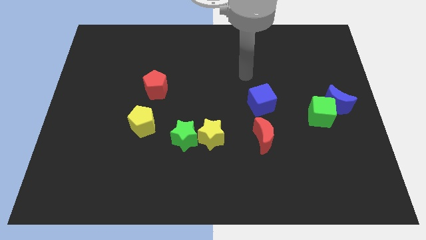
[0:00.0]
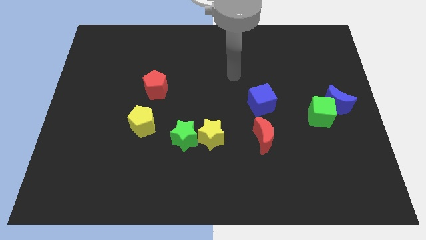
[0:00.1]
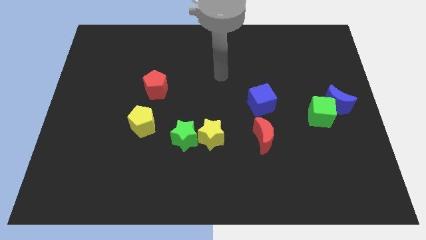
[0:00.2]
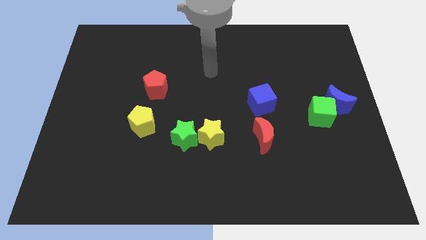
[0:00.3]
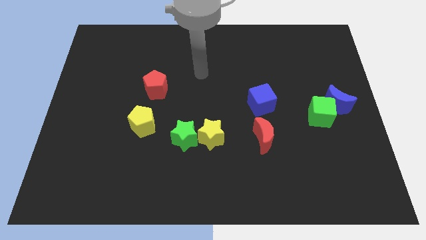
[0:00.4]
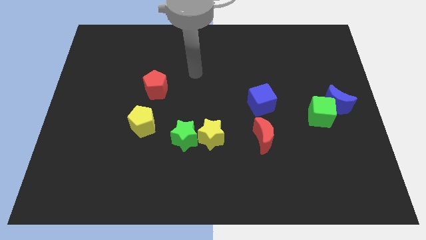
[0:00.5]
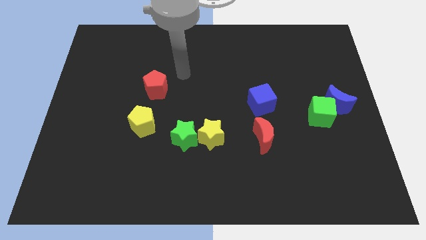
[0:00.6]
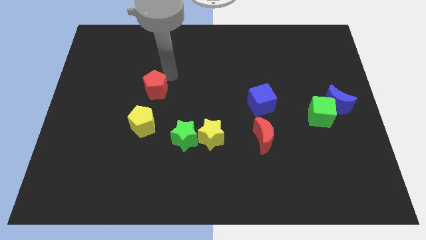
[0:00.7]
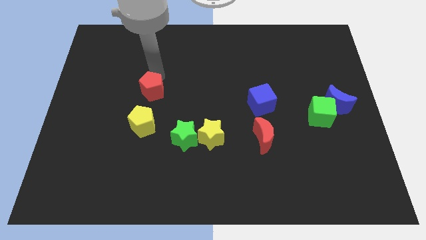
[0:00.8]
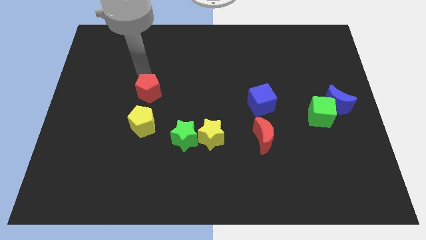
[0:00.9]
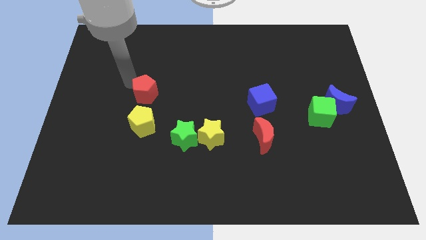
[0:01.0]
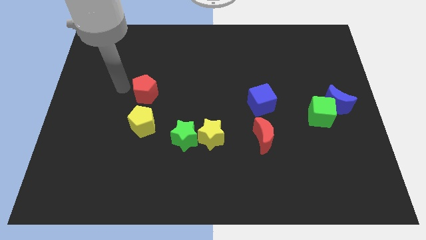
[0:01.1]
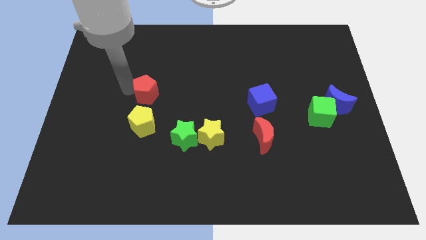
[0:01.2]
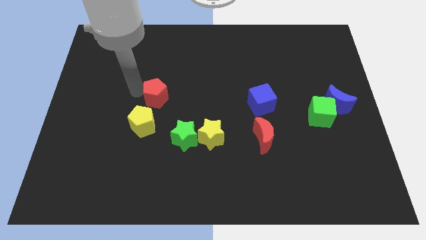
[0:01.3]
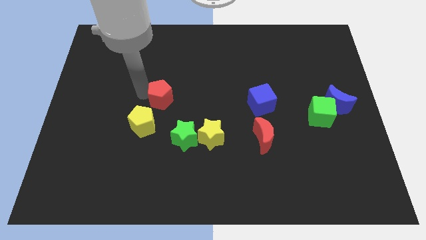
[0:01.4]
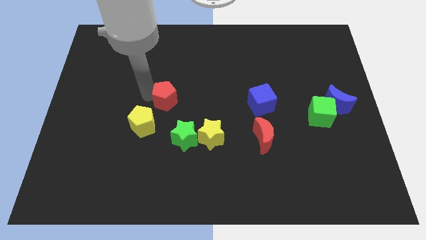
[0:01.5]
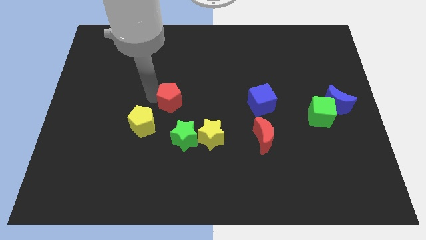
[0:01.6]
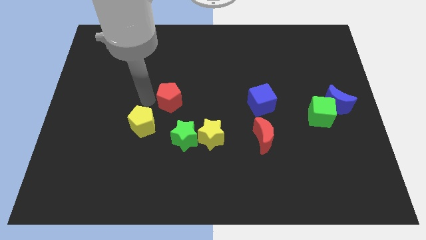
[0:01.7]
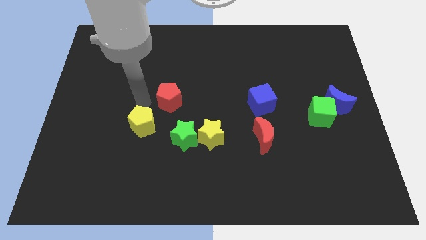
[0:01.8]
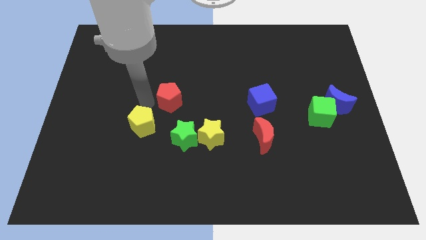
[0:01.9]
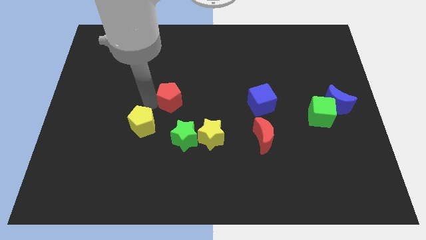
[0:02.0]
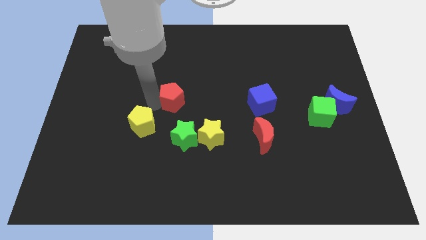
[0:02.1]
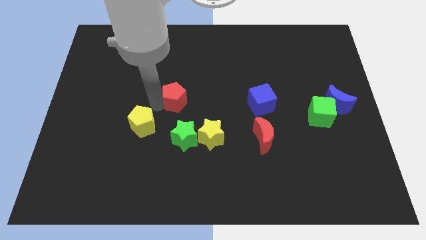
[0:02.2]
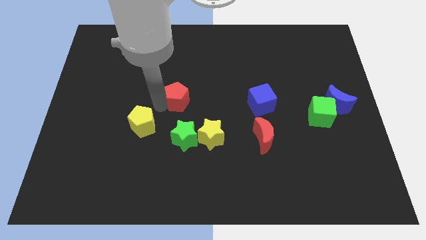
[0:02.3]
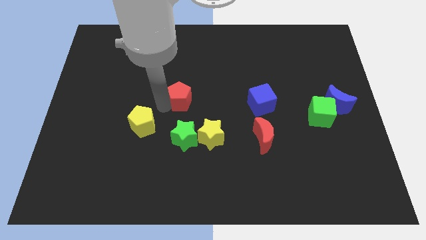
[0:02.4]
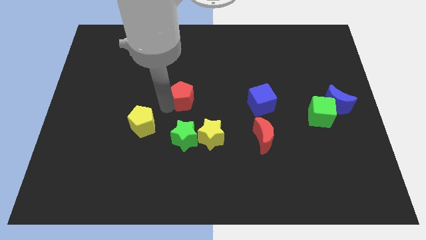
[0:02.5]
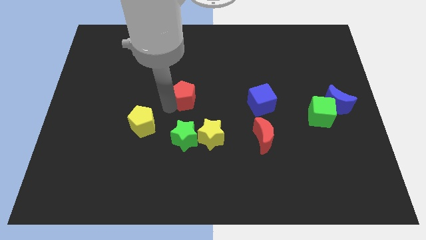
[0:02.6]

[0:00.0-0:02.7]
slightly move the red pentagon to the right

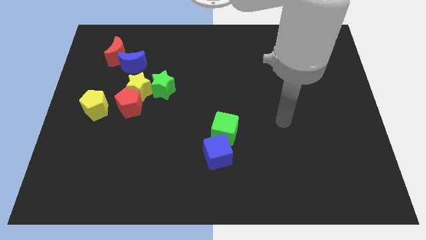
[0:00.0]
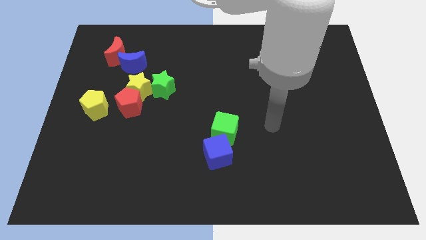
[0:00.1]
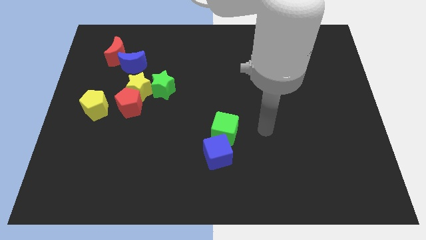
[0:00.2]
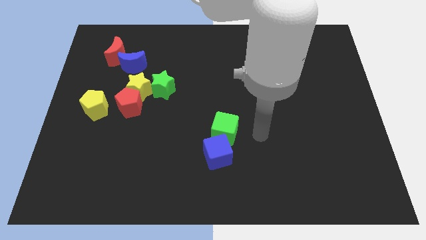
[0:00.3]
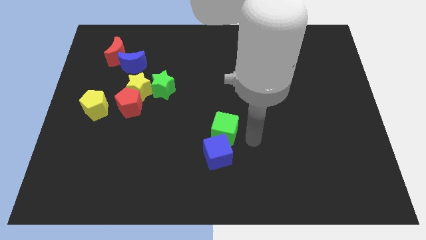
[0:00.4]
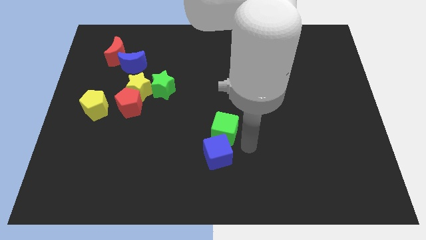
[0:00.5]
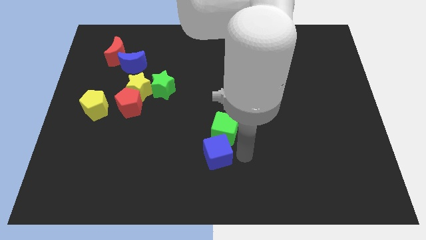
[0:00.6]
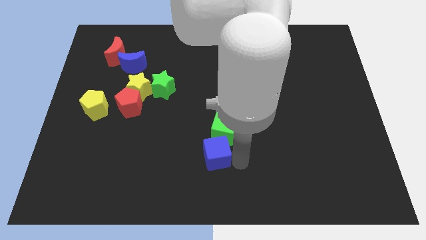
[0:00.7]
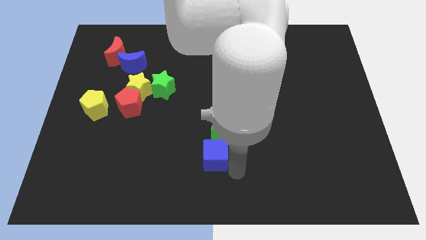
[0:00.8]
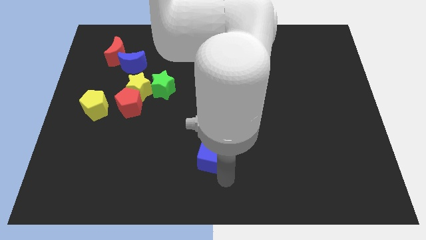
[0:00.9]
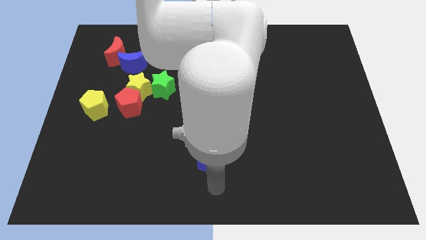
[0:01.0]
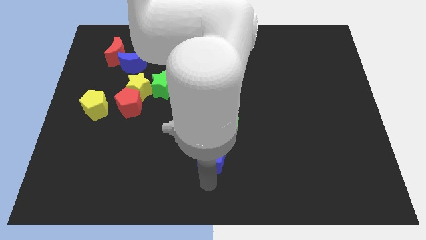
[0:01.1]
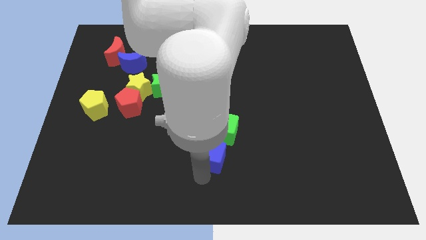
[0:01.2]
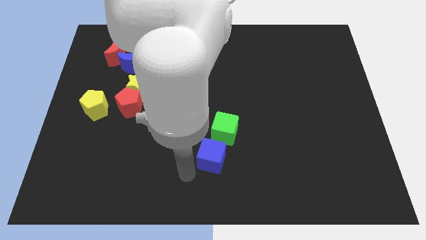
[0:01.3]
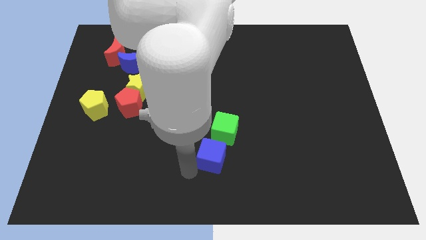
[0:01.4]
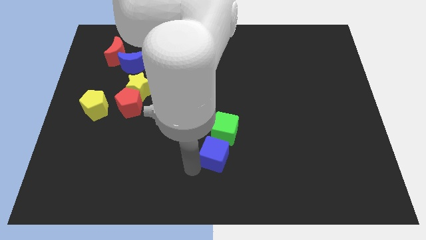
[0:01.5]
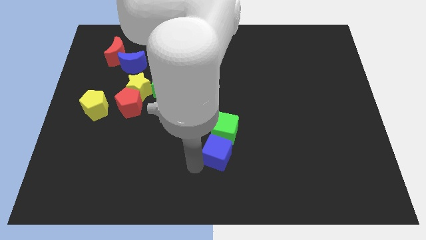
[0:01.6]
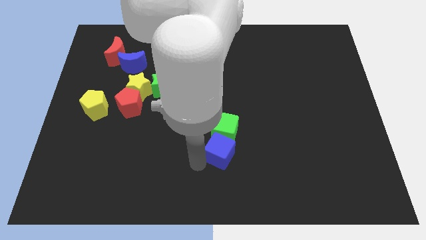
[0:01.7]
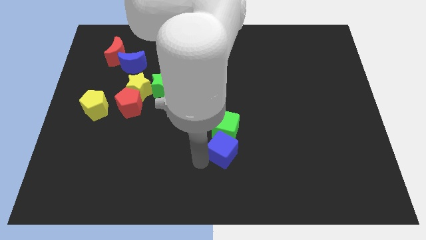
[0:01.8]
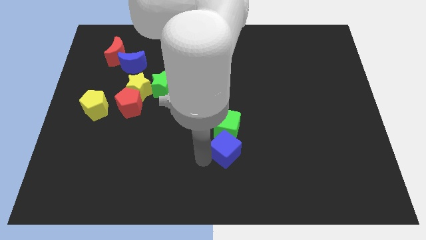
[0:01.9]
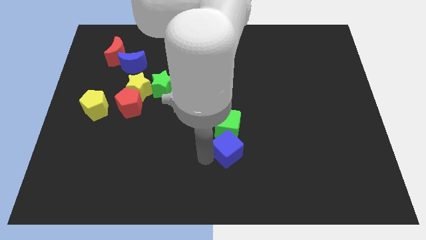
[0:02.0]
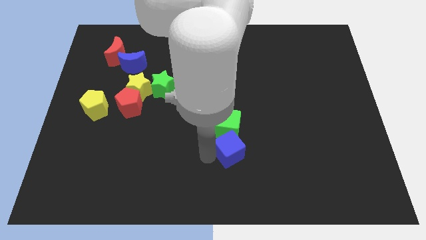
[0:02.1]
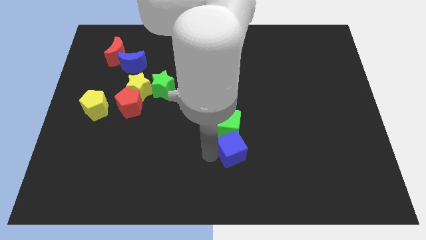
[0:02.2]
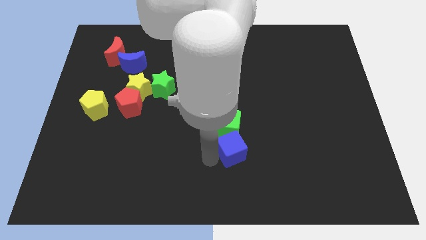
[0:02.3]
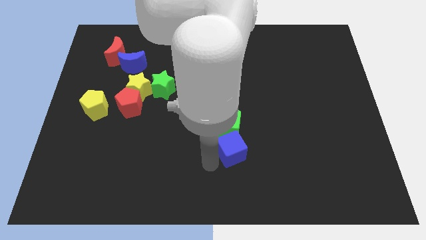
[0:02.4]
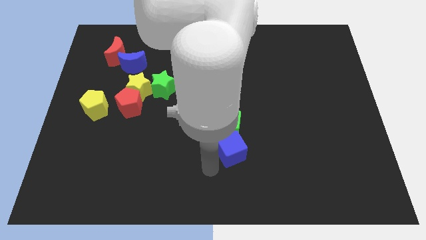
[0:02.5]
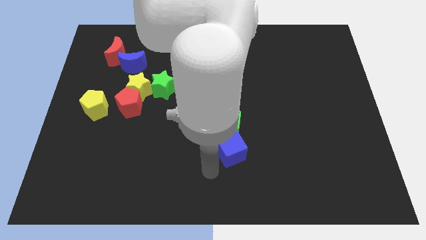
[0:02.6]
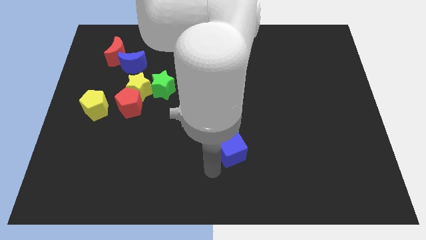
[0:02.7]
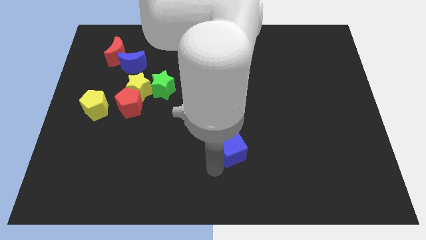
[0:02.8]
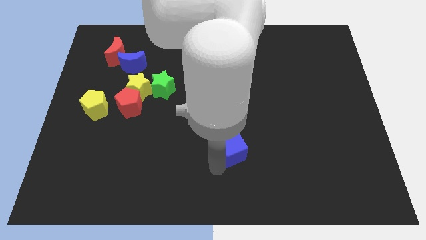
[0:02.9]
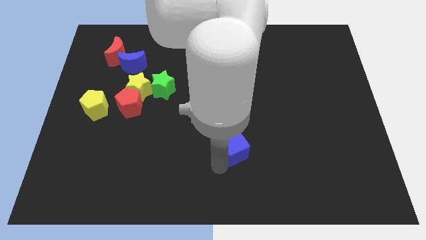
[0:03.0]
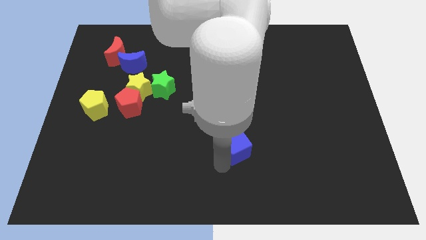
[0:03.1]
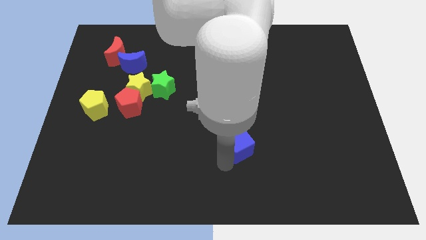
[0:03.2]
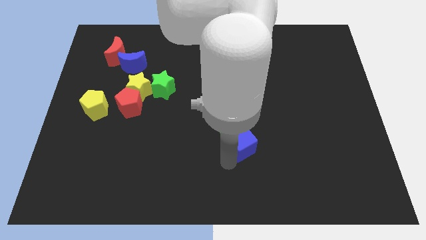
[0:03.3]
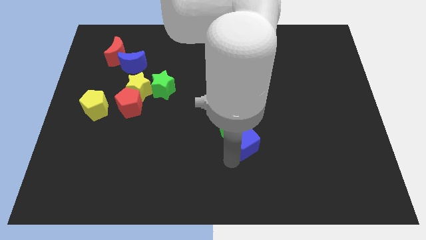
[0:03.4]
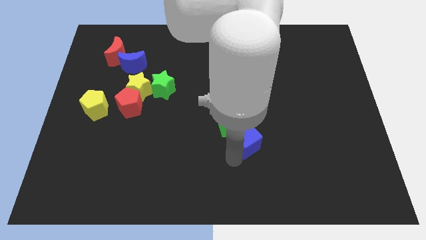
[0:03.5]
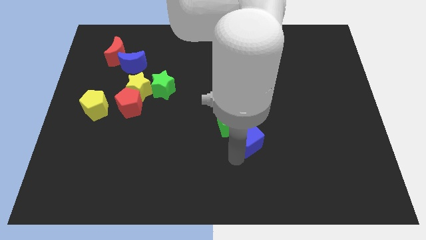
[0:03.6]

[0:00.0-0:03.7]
slide the blue cube a bit up and right diagonally

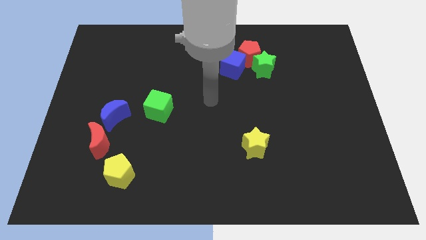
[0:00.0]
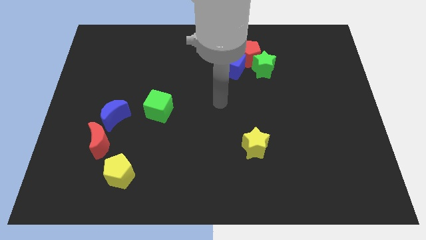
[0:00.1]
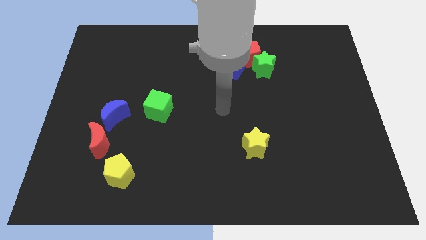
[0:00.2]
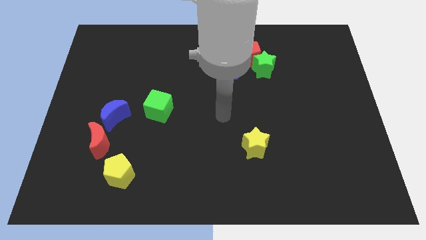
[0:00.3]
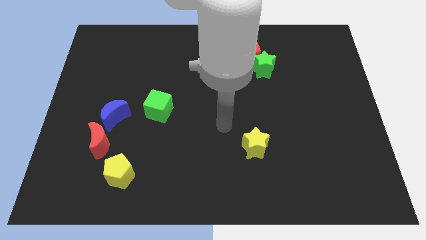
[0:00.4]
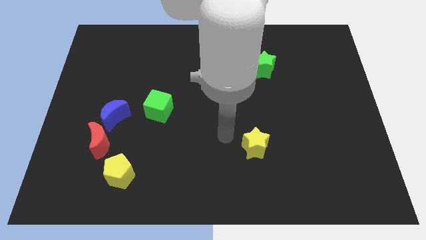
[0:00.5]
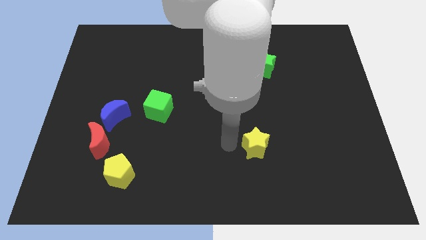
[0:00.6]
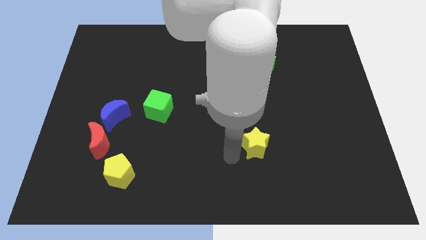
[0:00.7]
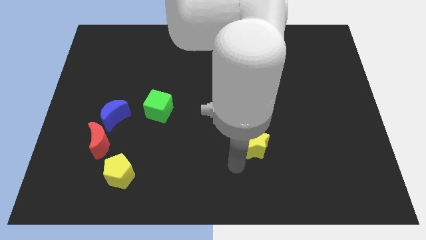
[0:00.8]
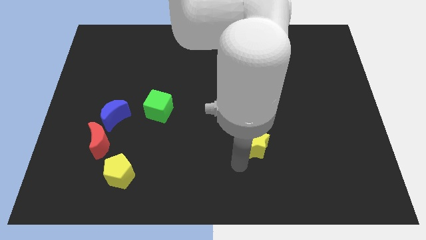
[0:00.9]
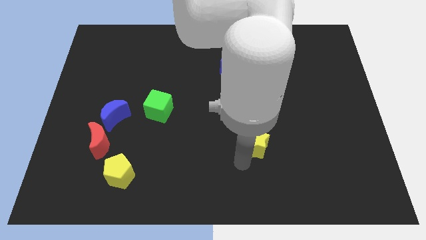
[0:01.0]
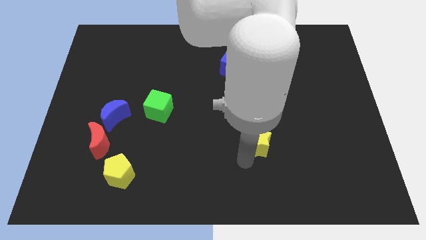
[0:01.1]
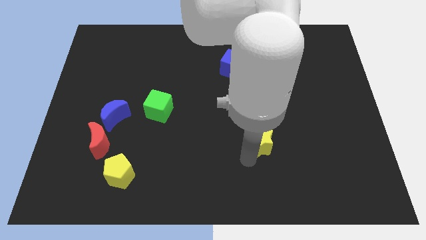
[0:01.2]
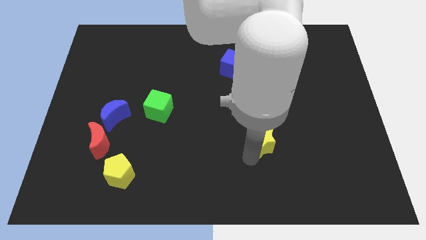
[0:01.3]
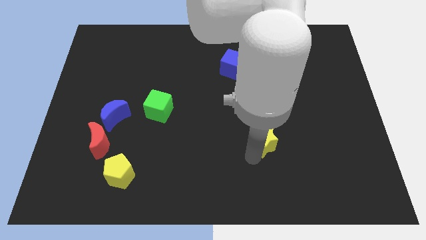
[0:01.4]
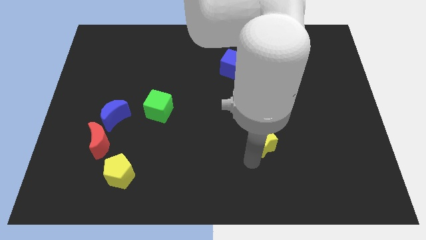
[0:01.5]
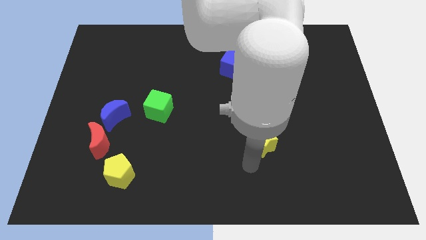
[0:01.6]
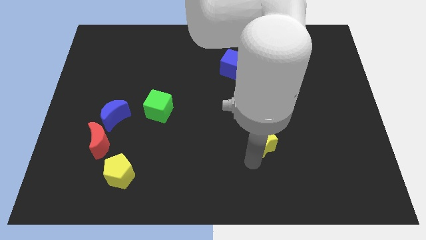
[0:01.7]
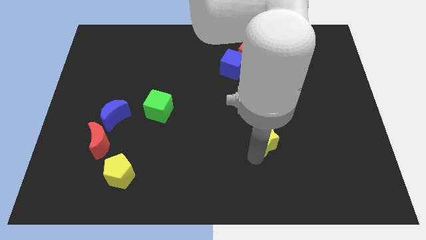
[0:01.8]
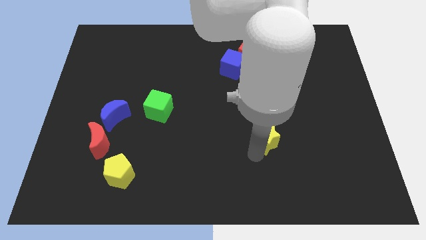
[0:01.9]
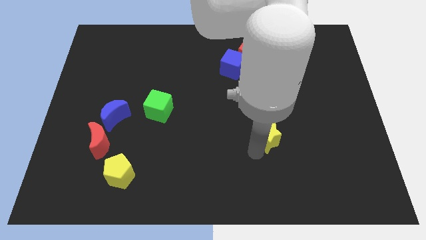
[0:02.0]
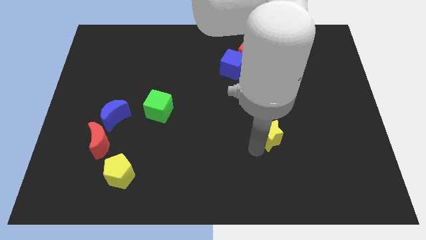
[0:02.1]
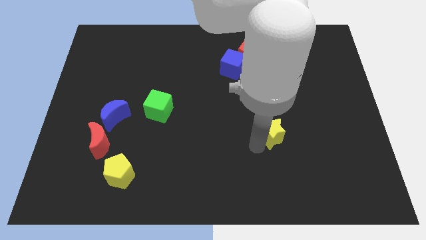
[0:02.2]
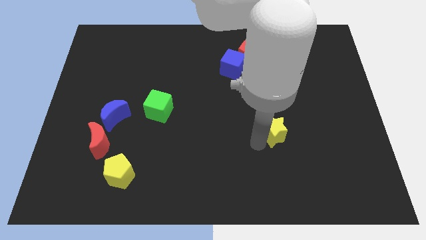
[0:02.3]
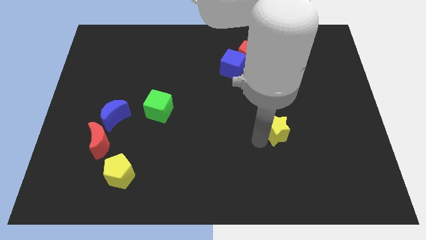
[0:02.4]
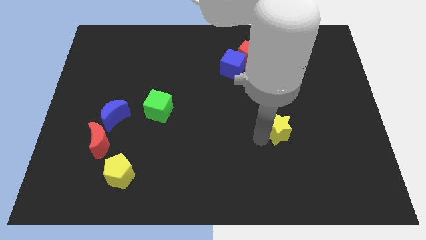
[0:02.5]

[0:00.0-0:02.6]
slightly move the yellow star diagonally upwards and to the right
